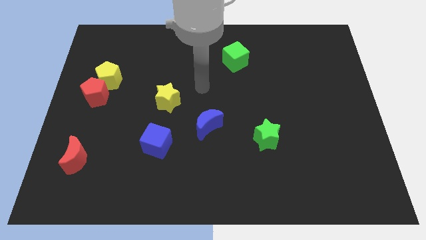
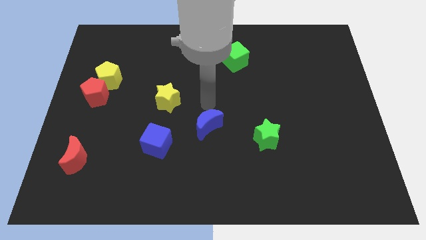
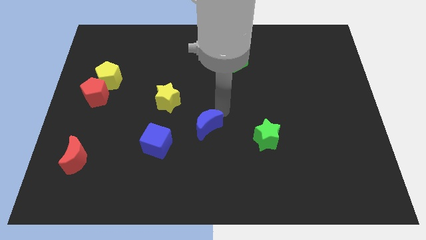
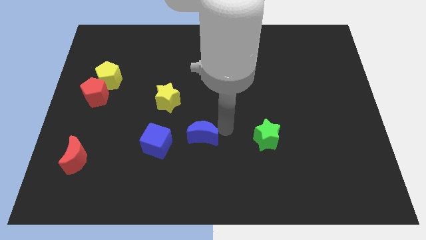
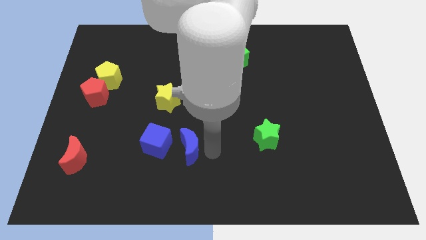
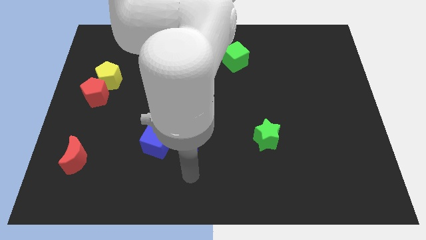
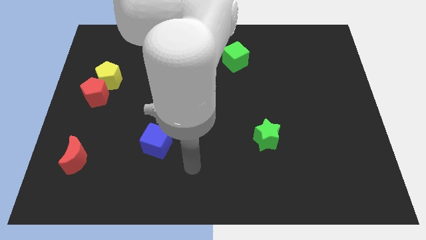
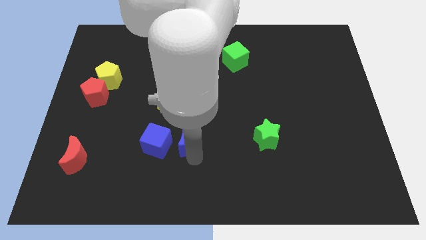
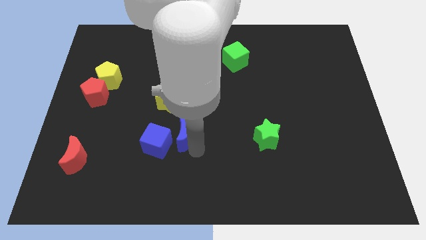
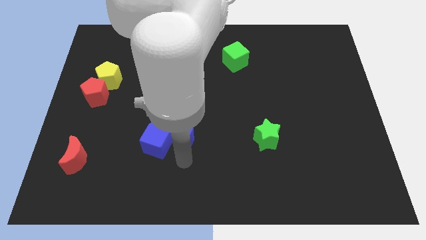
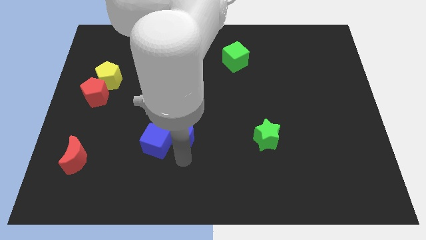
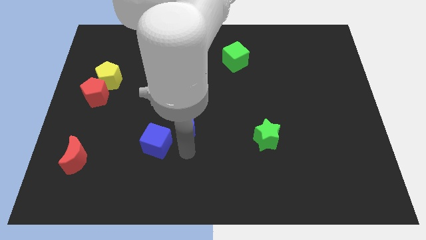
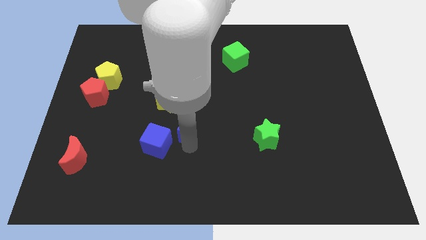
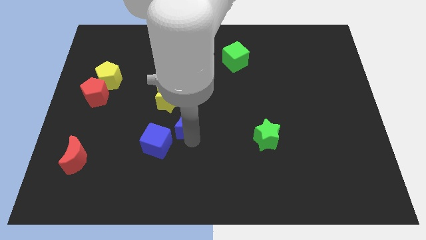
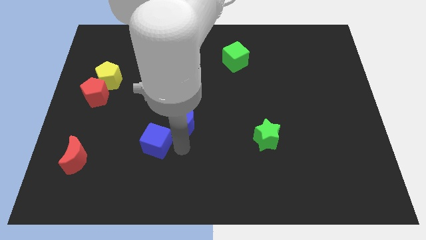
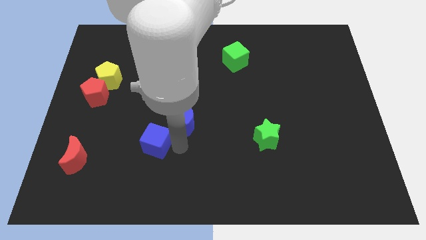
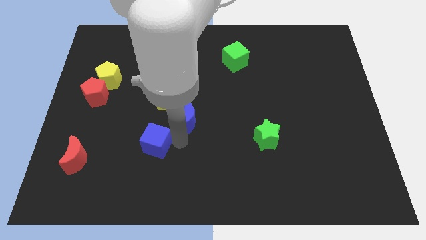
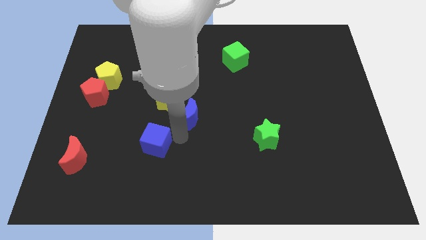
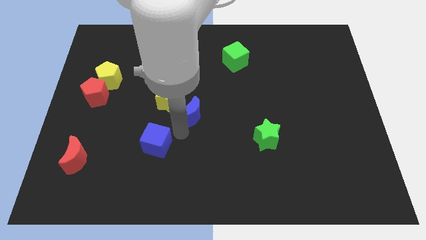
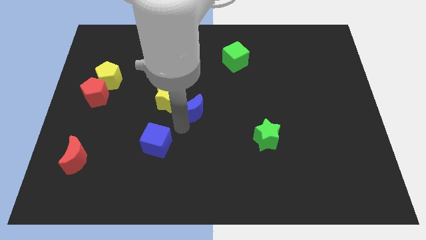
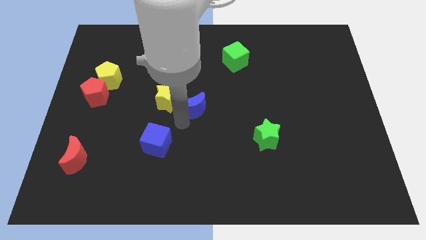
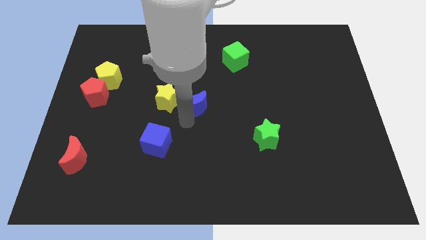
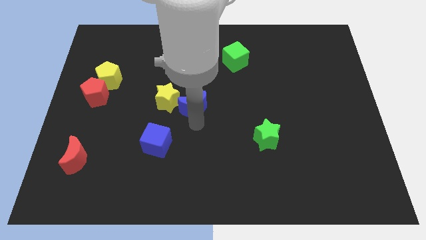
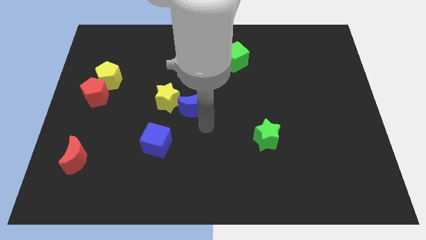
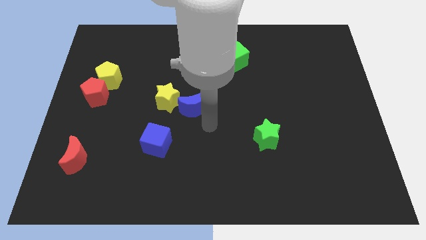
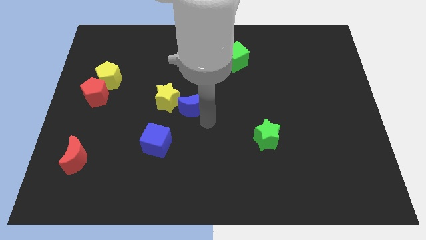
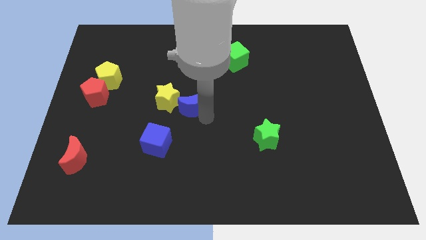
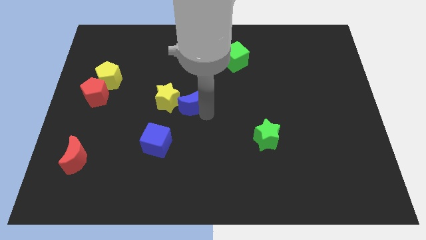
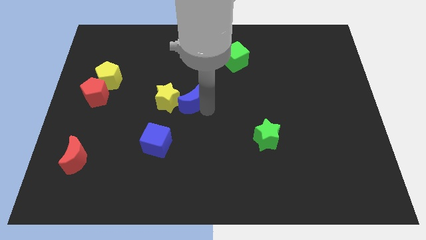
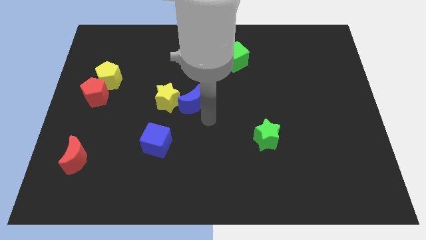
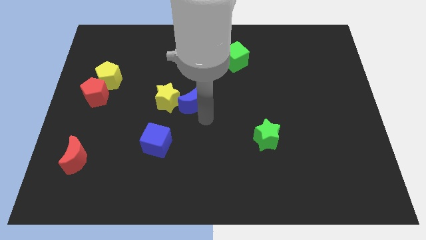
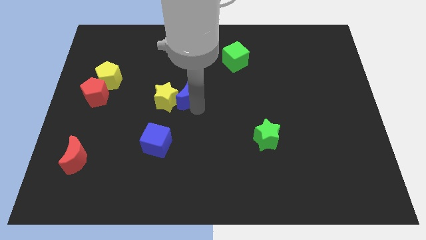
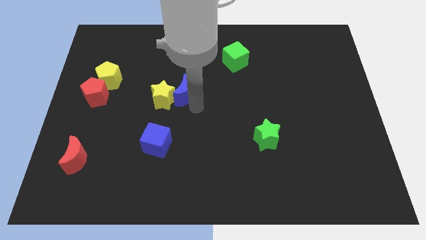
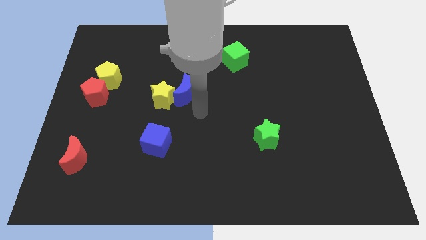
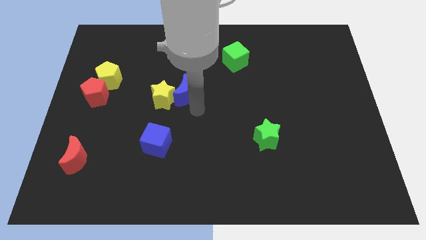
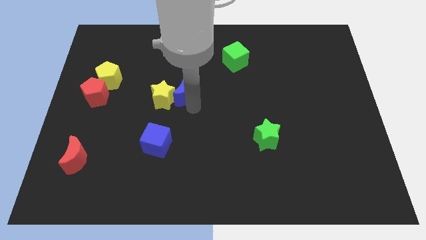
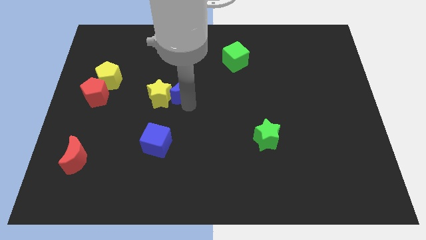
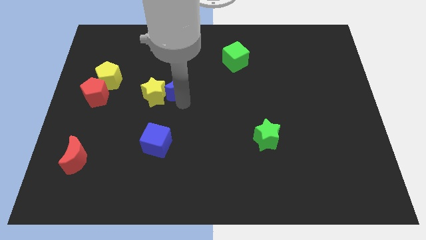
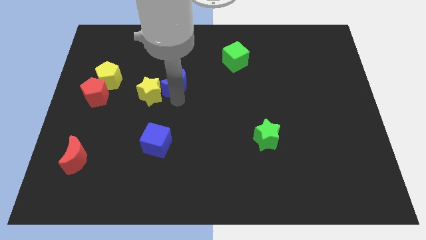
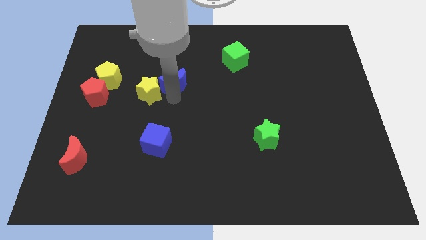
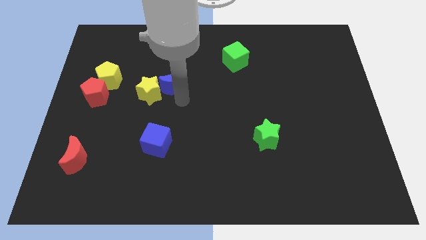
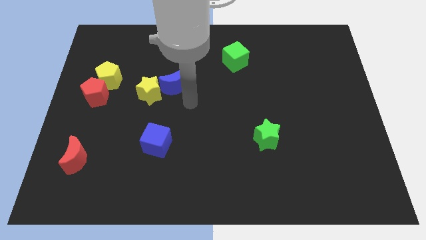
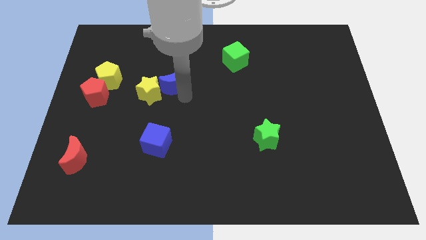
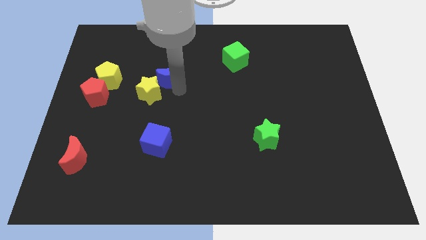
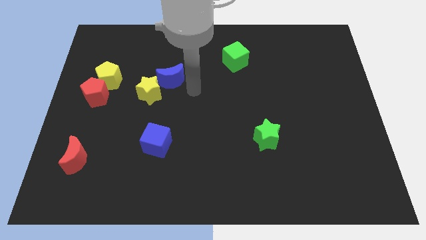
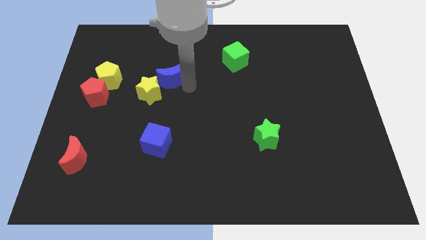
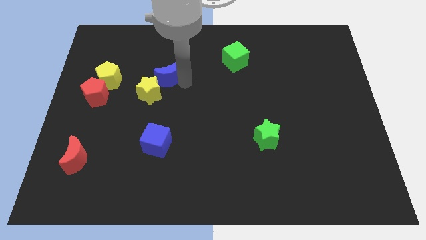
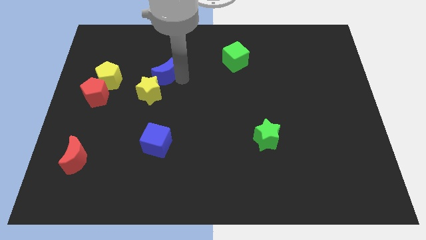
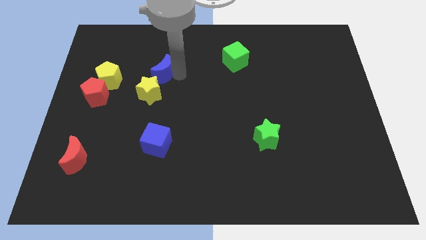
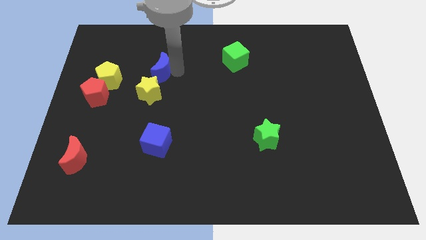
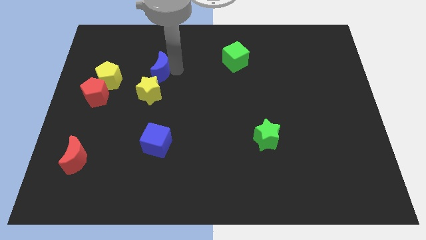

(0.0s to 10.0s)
slide the blue moon upwards and to the left diagonally

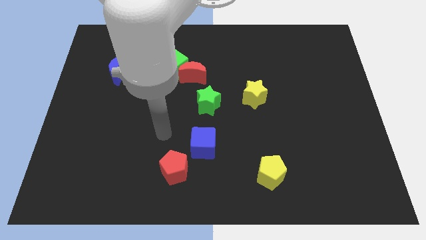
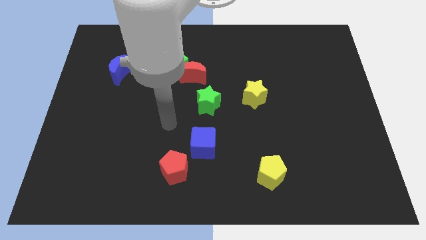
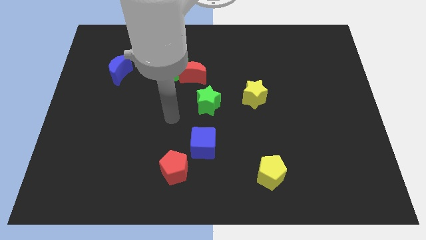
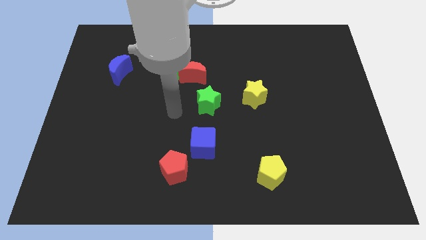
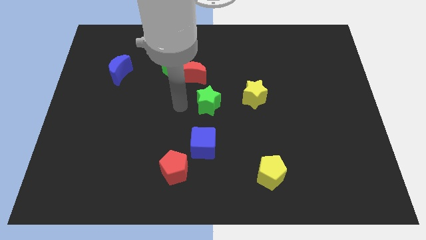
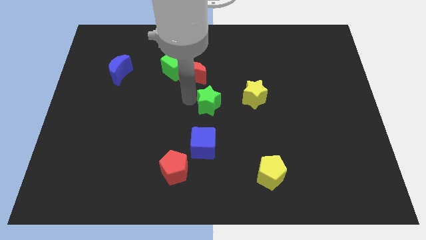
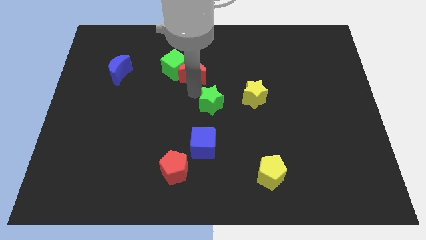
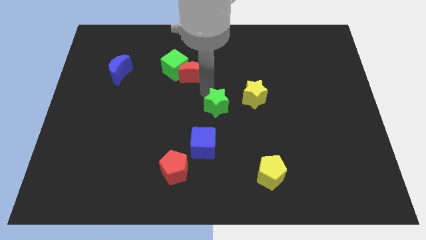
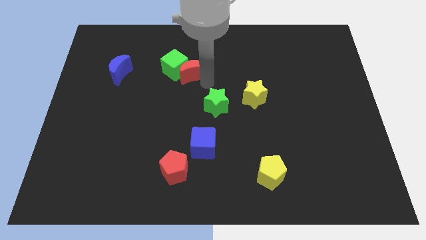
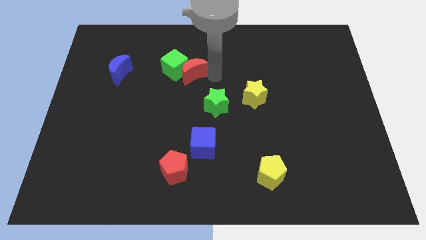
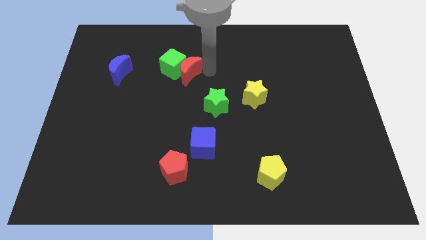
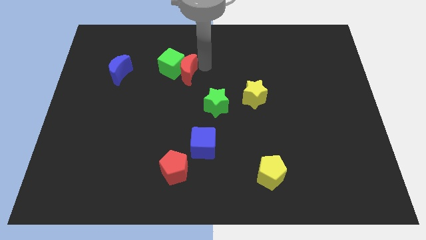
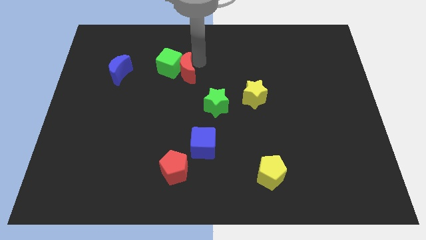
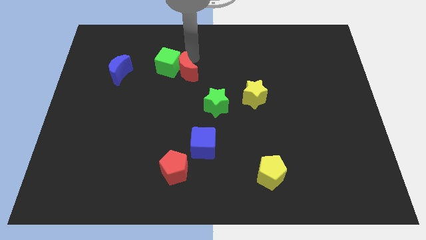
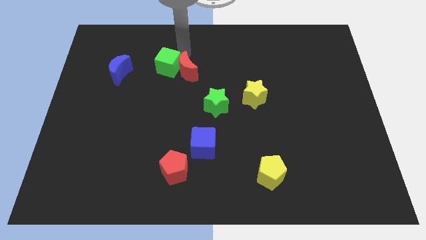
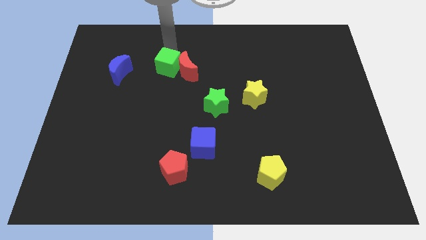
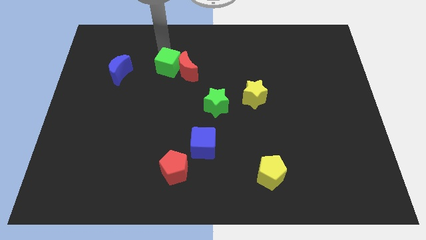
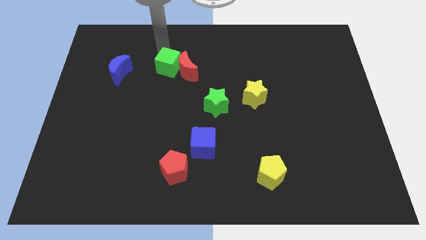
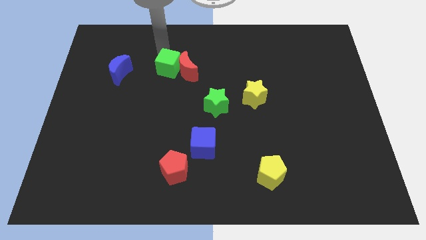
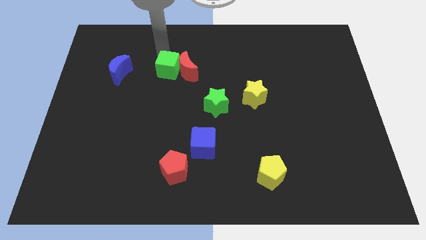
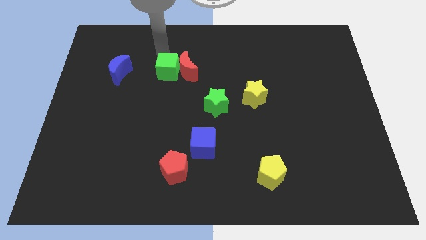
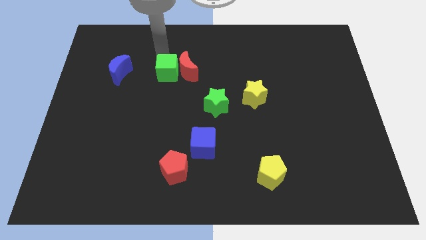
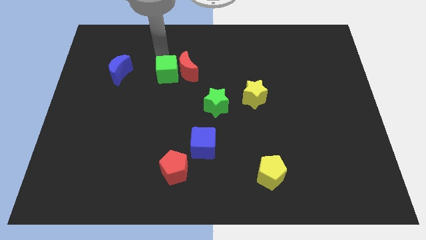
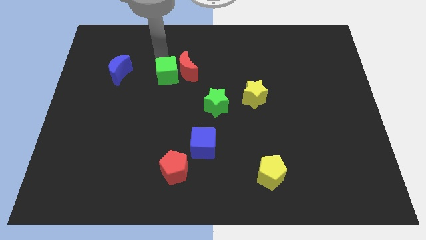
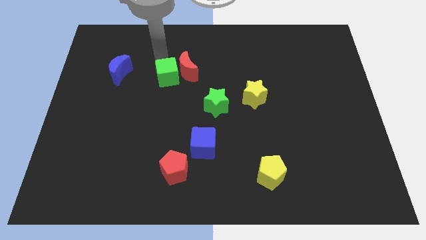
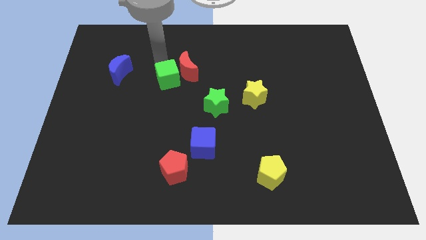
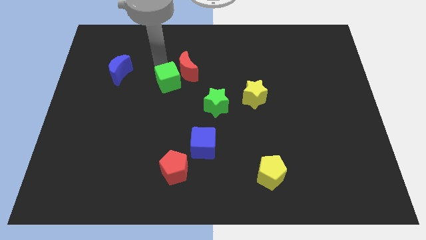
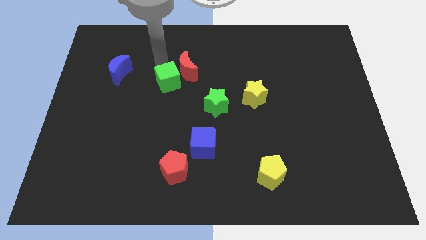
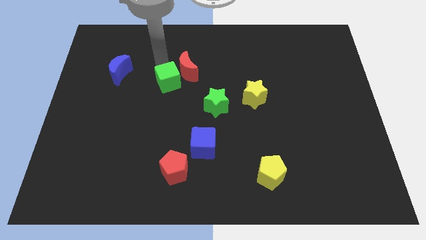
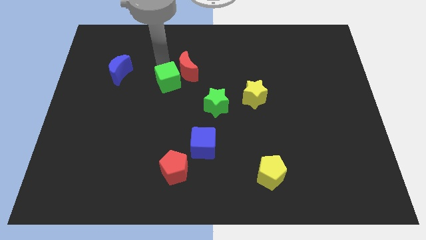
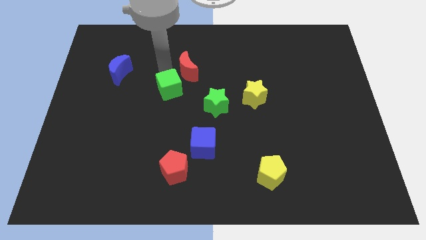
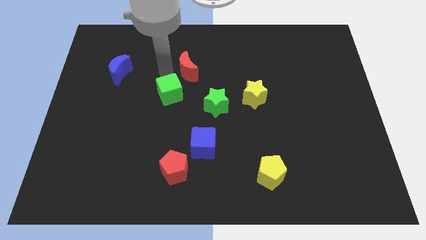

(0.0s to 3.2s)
slide the green cube downwards a bit
